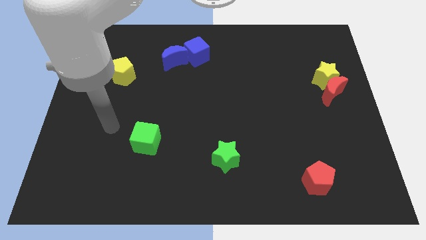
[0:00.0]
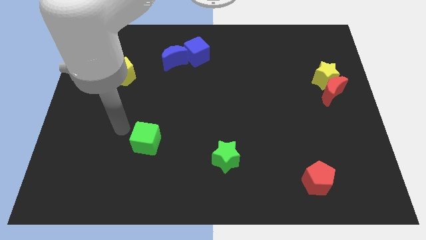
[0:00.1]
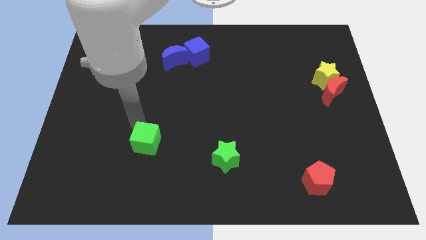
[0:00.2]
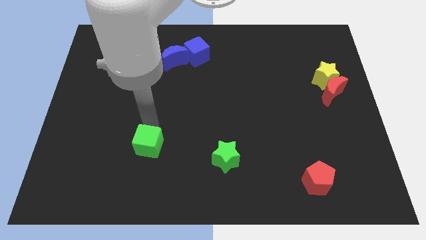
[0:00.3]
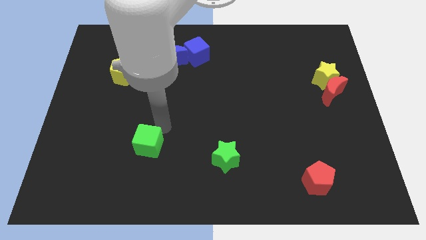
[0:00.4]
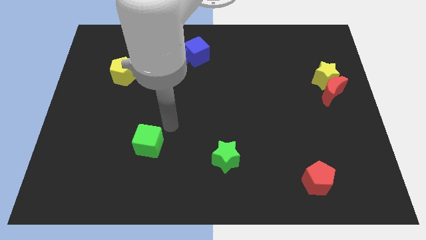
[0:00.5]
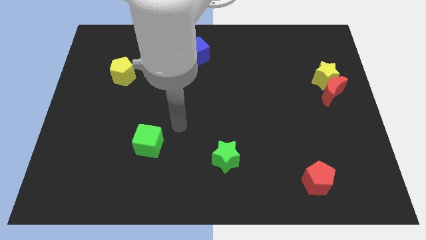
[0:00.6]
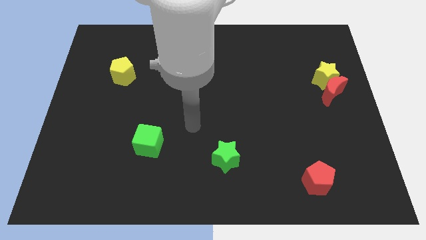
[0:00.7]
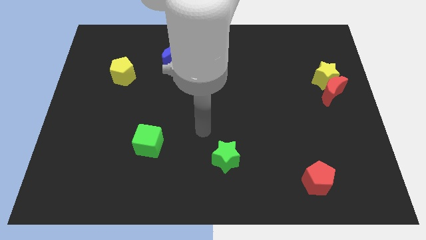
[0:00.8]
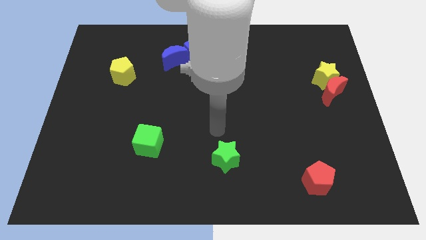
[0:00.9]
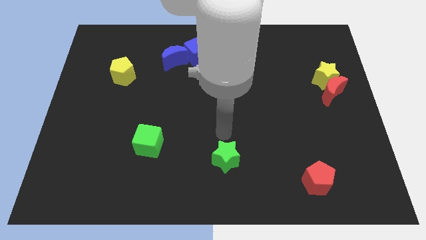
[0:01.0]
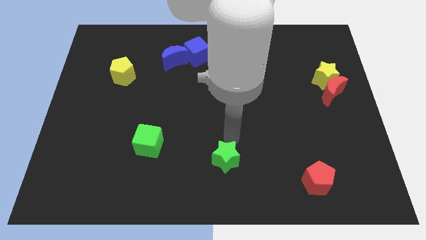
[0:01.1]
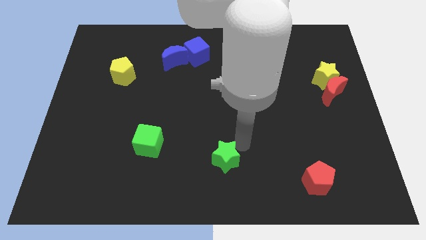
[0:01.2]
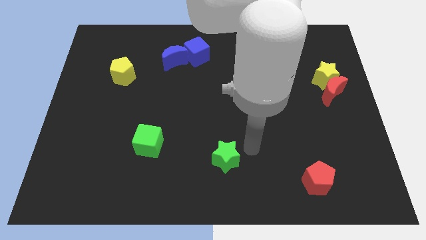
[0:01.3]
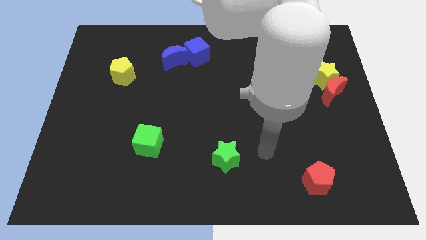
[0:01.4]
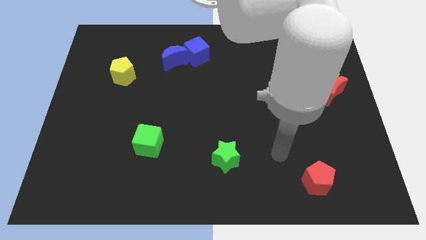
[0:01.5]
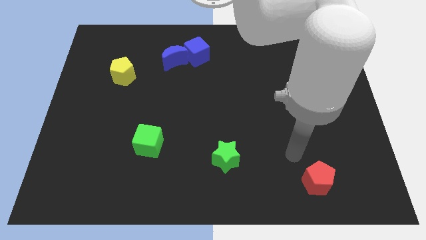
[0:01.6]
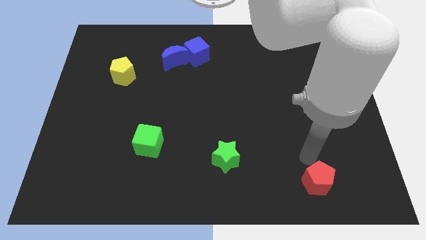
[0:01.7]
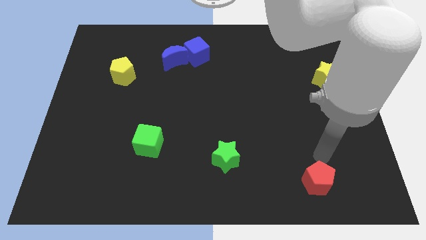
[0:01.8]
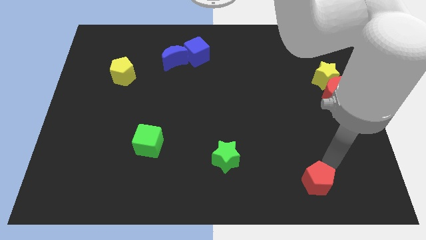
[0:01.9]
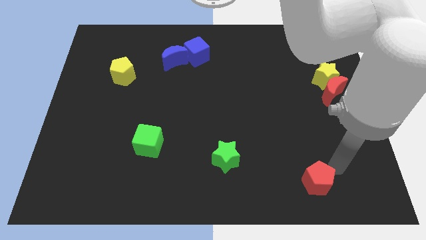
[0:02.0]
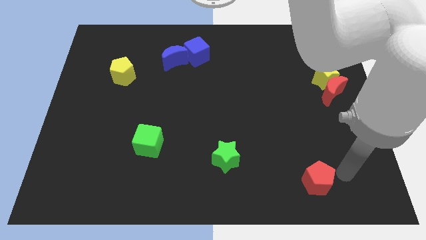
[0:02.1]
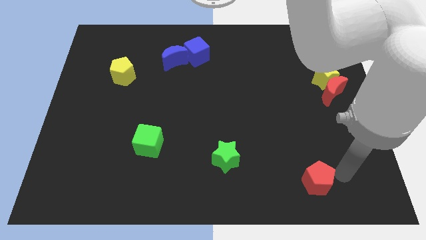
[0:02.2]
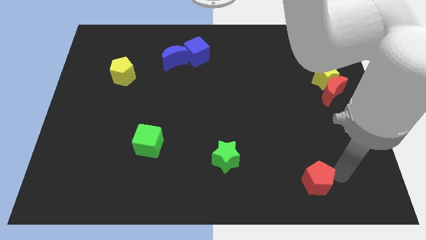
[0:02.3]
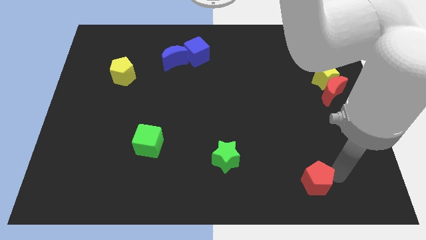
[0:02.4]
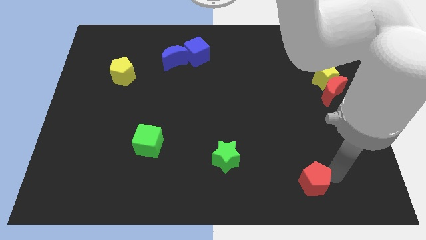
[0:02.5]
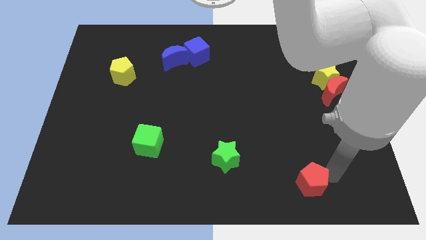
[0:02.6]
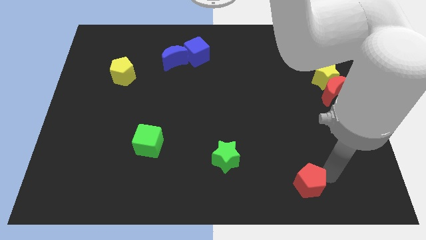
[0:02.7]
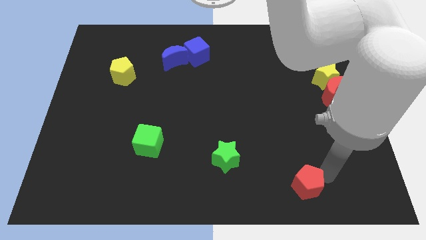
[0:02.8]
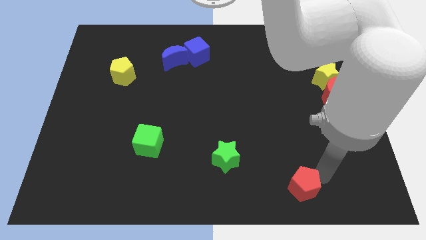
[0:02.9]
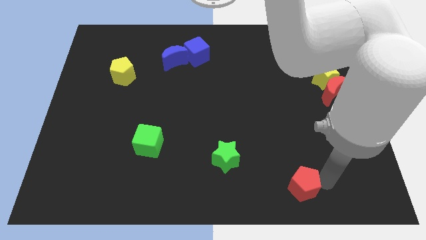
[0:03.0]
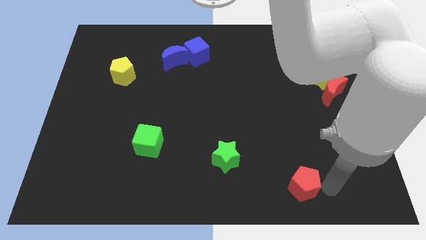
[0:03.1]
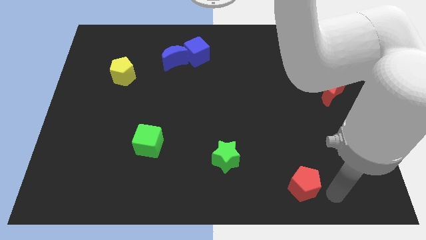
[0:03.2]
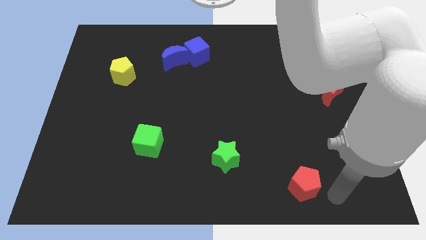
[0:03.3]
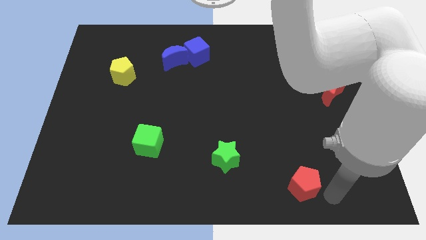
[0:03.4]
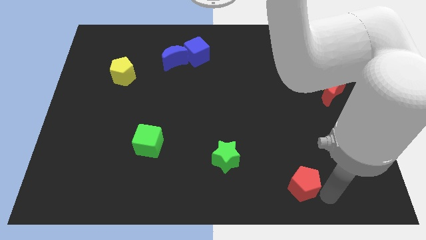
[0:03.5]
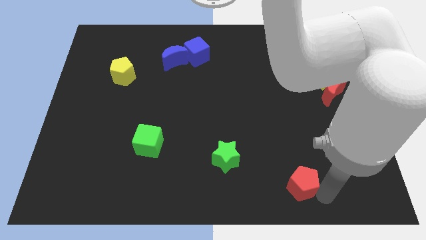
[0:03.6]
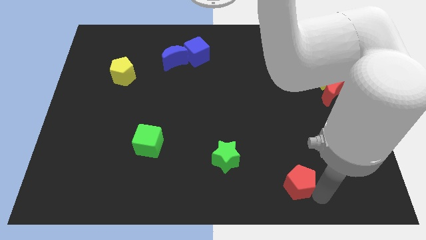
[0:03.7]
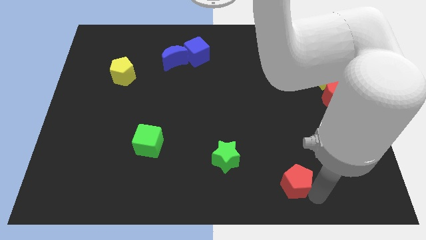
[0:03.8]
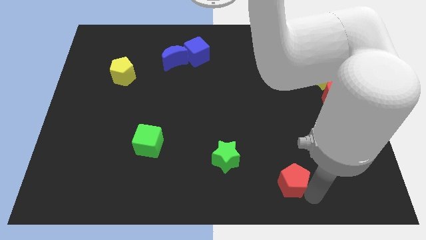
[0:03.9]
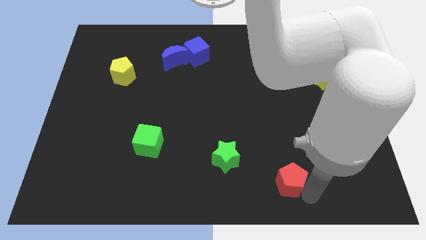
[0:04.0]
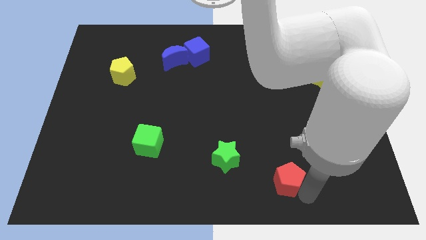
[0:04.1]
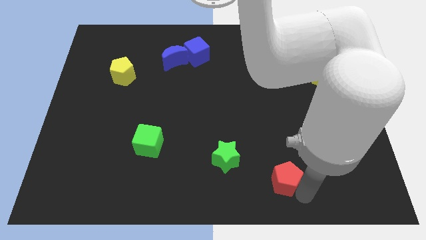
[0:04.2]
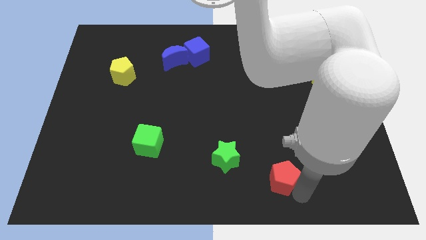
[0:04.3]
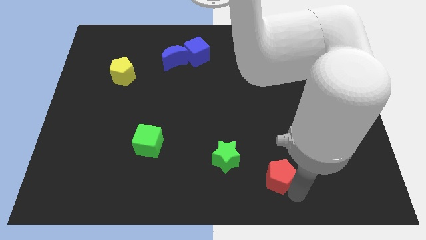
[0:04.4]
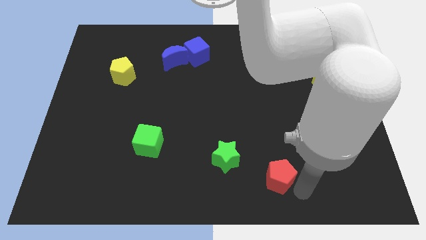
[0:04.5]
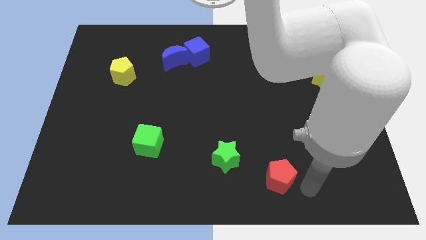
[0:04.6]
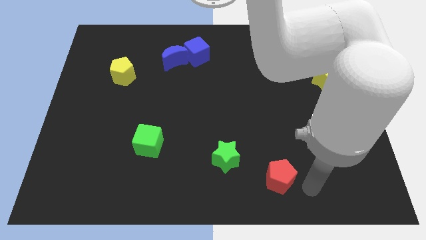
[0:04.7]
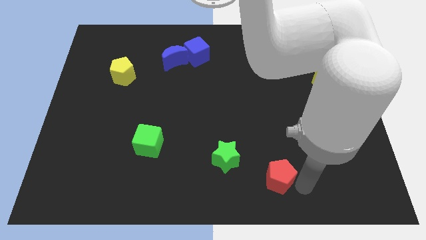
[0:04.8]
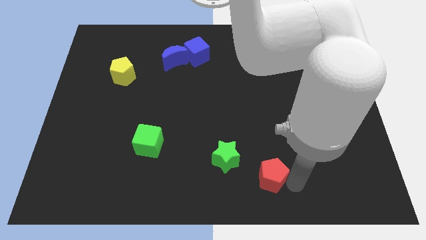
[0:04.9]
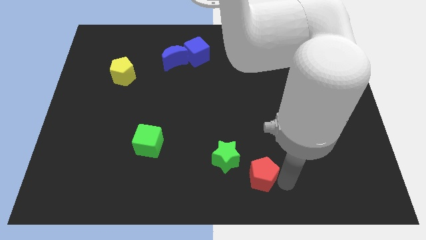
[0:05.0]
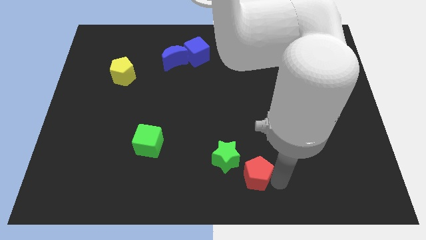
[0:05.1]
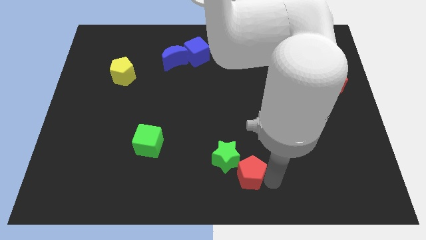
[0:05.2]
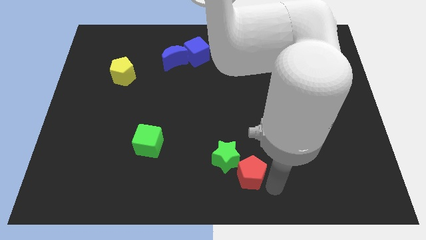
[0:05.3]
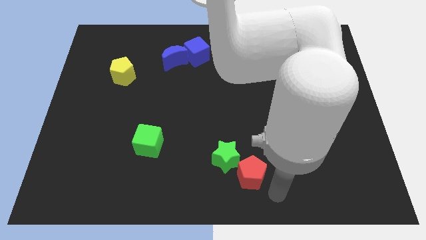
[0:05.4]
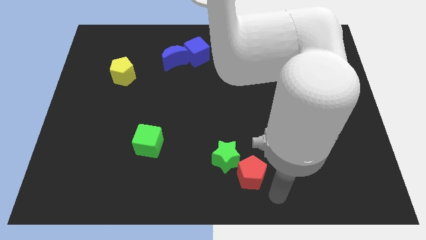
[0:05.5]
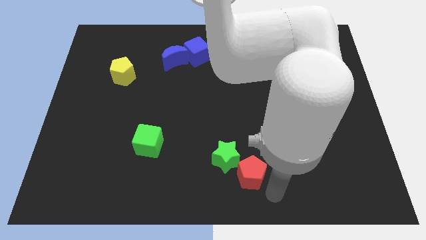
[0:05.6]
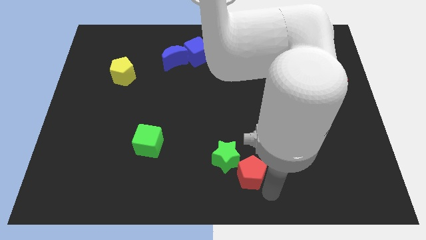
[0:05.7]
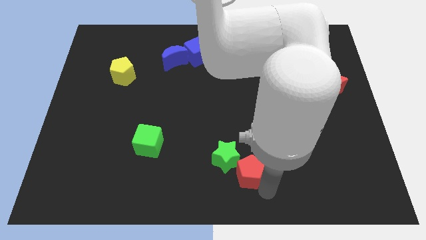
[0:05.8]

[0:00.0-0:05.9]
push the red pentagon close to the green star

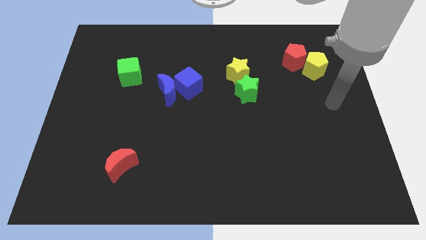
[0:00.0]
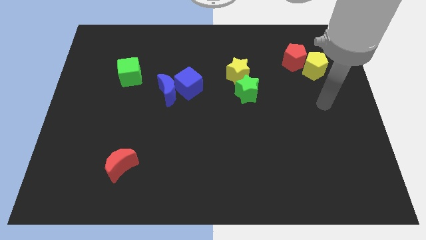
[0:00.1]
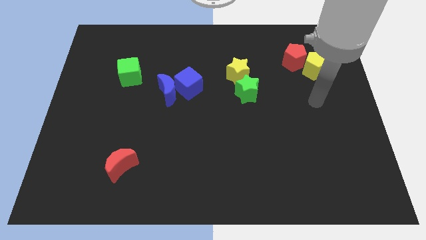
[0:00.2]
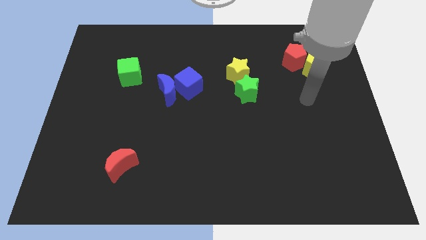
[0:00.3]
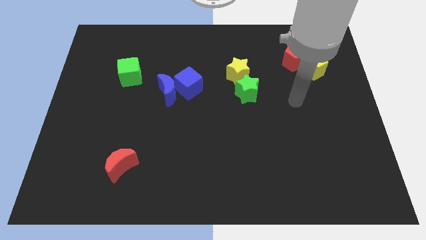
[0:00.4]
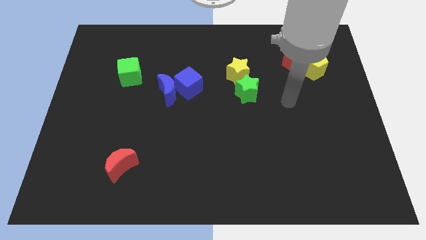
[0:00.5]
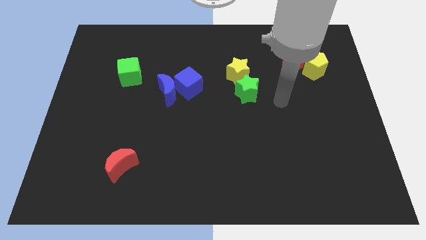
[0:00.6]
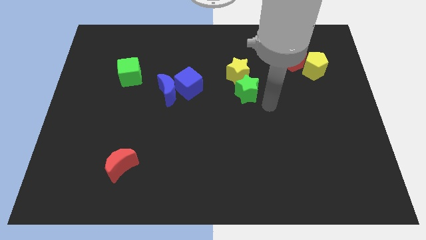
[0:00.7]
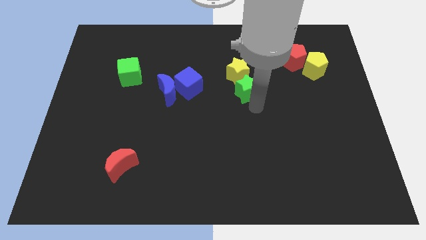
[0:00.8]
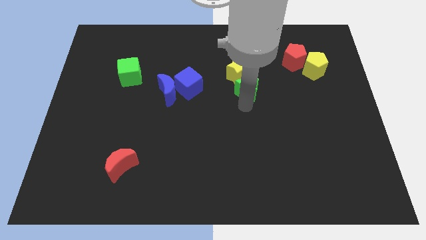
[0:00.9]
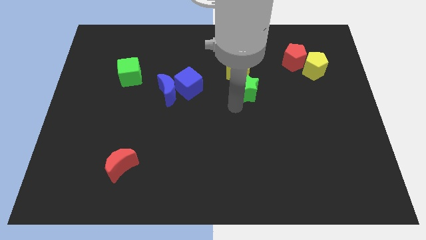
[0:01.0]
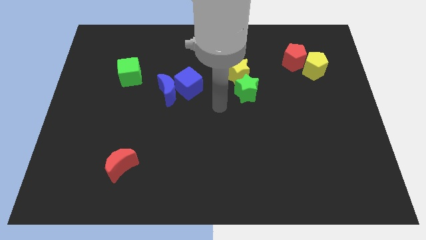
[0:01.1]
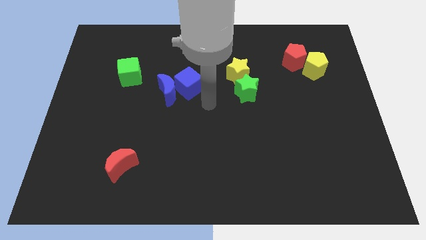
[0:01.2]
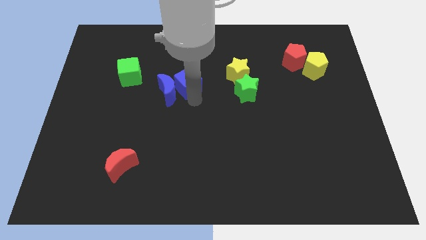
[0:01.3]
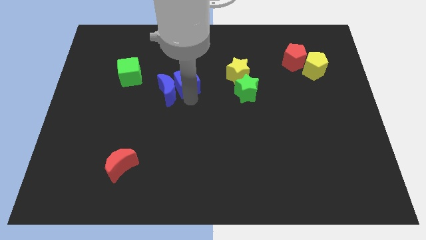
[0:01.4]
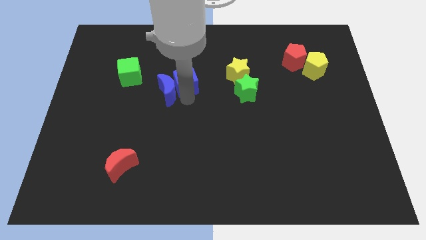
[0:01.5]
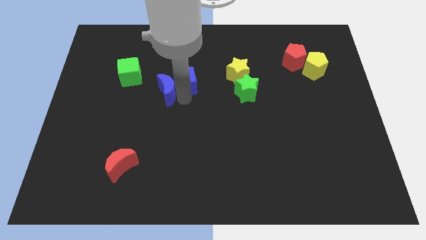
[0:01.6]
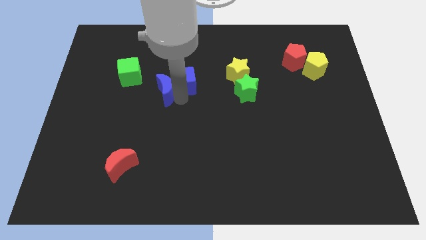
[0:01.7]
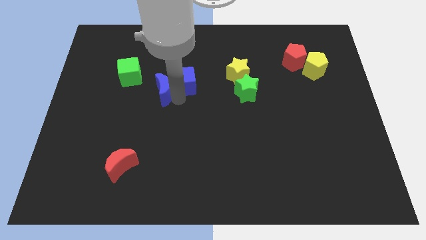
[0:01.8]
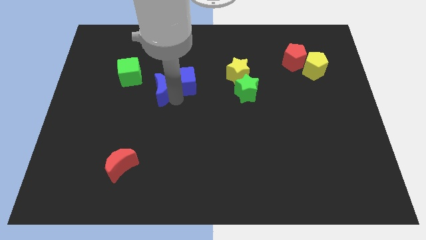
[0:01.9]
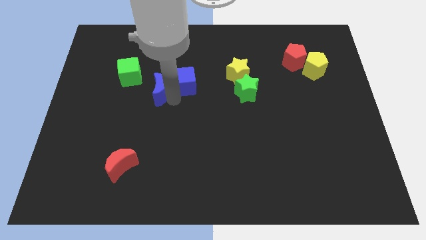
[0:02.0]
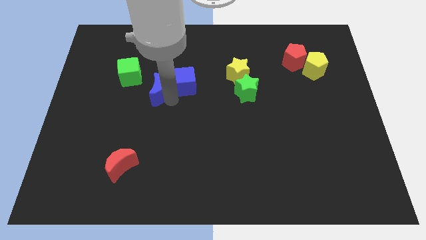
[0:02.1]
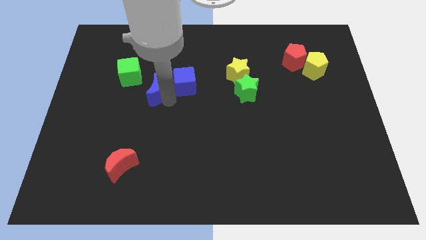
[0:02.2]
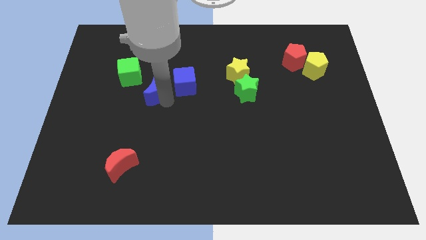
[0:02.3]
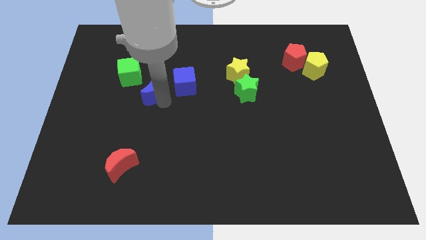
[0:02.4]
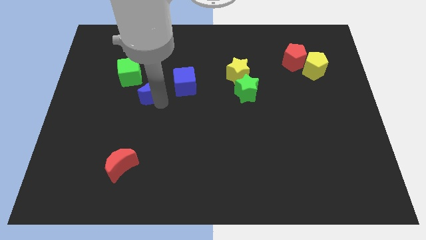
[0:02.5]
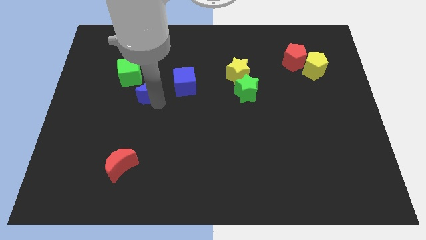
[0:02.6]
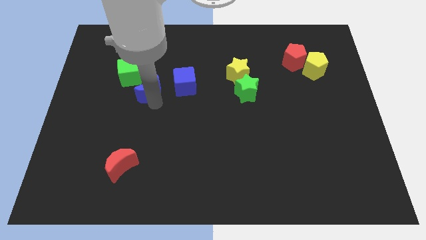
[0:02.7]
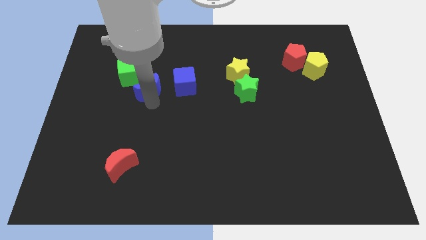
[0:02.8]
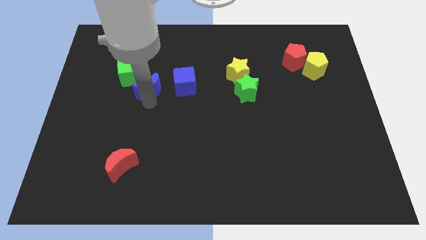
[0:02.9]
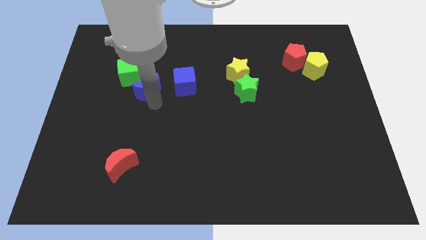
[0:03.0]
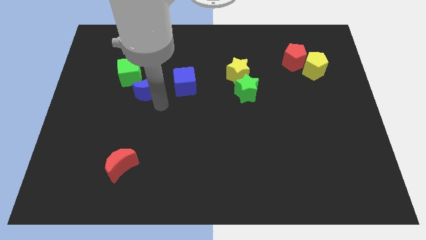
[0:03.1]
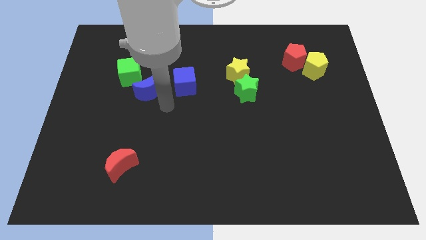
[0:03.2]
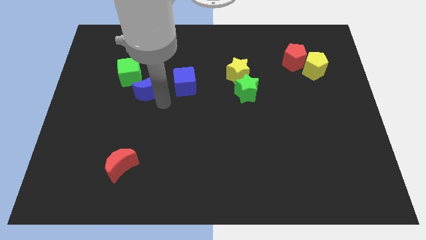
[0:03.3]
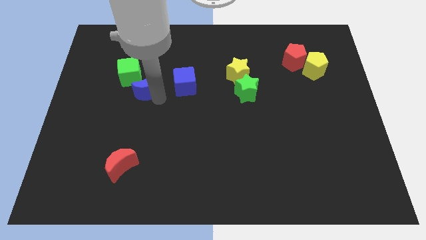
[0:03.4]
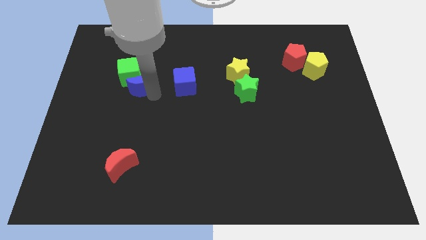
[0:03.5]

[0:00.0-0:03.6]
move the blue moon close to the green cube
